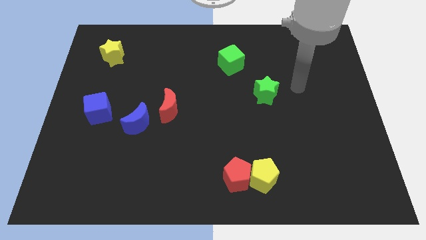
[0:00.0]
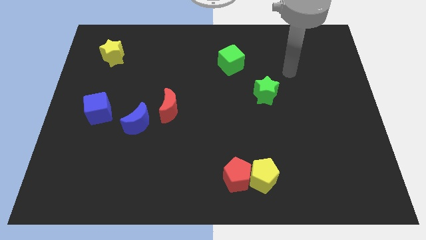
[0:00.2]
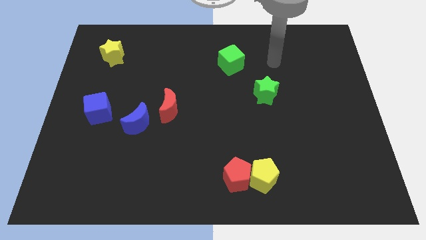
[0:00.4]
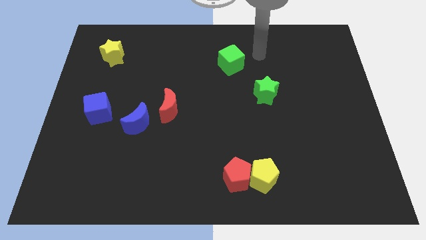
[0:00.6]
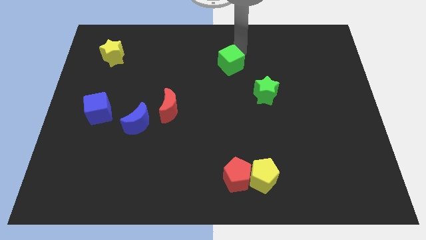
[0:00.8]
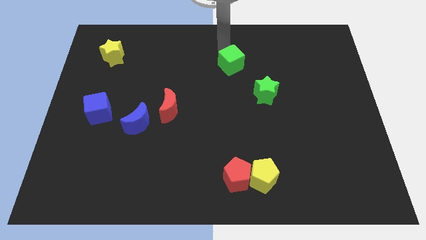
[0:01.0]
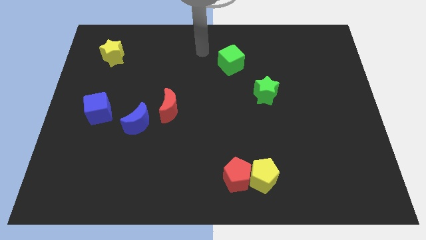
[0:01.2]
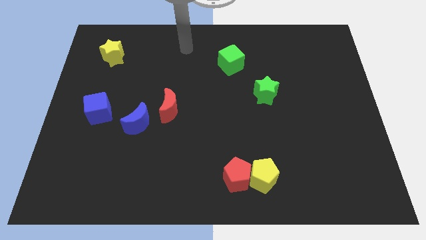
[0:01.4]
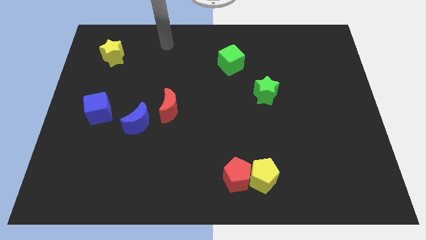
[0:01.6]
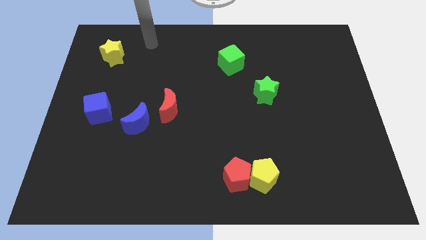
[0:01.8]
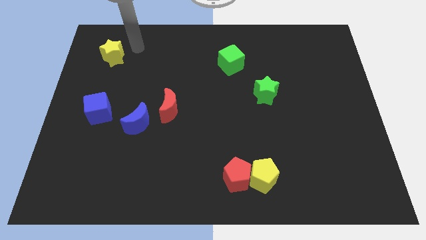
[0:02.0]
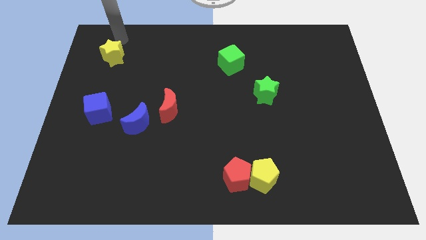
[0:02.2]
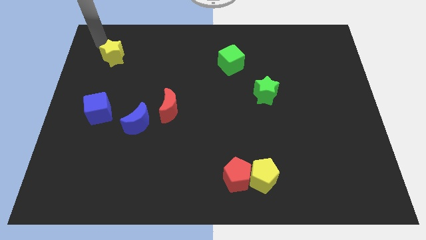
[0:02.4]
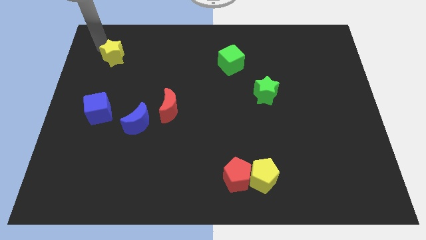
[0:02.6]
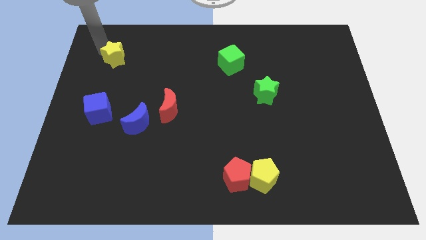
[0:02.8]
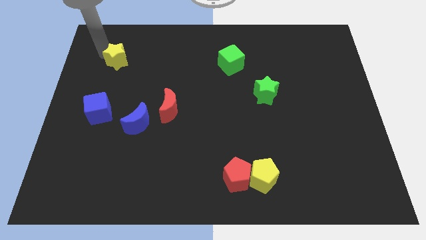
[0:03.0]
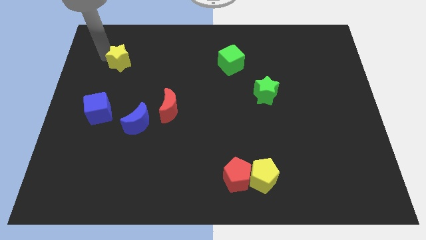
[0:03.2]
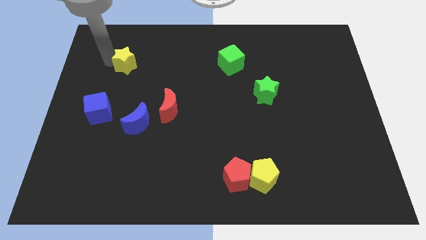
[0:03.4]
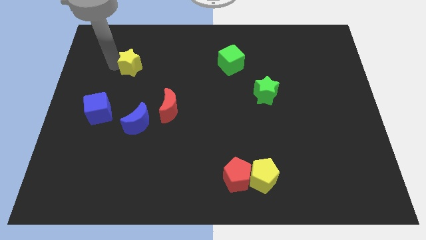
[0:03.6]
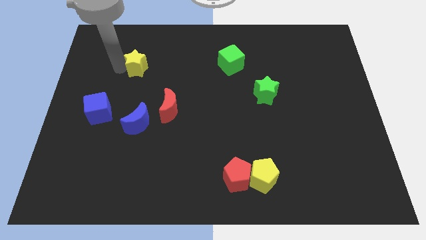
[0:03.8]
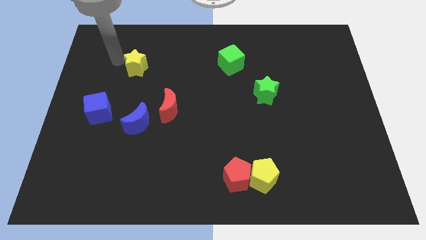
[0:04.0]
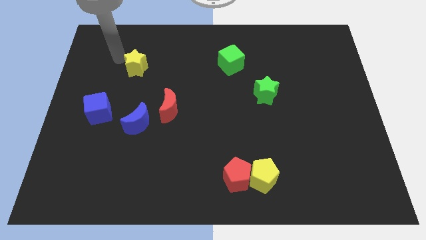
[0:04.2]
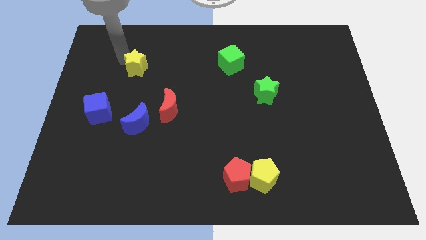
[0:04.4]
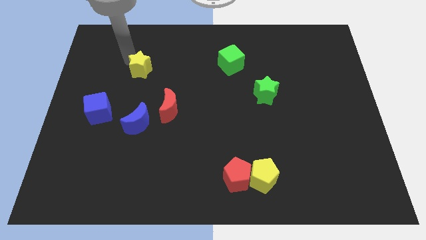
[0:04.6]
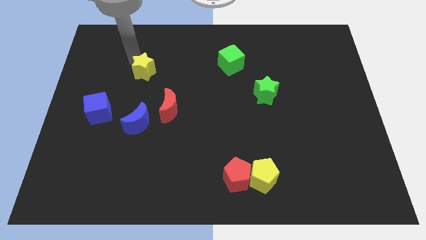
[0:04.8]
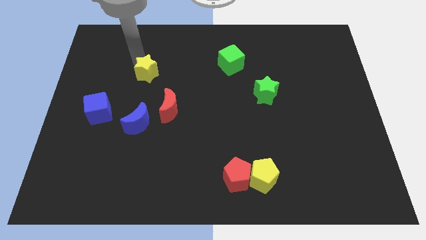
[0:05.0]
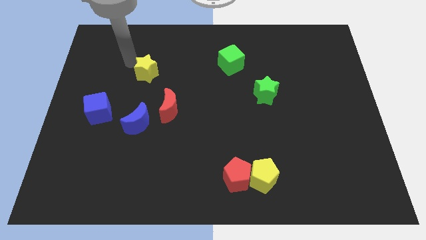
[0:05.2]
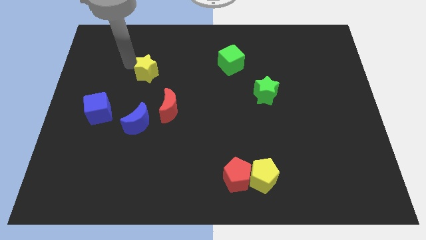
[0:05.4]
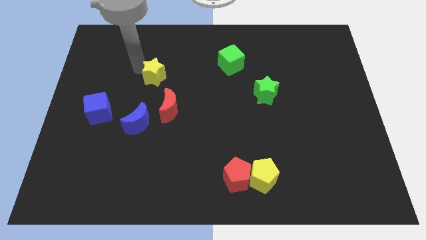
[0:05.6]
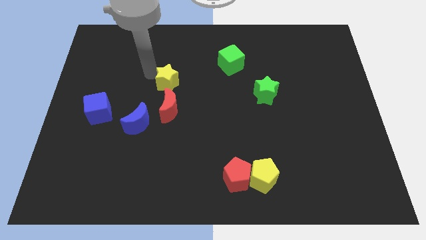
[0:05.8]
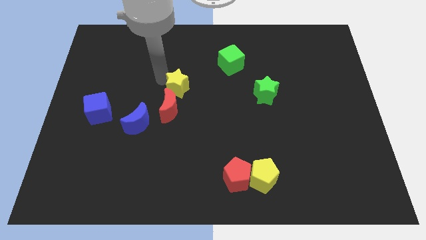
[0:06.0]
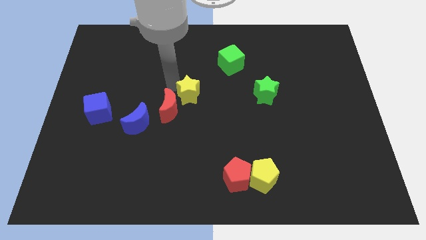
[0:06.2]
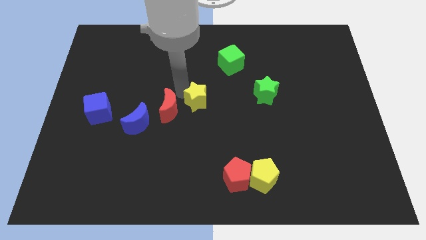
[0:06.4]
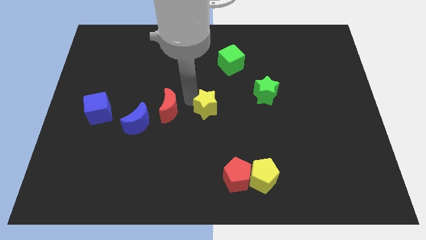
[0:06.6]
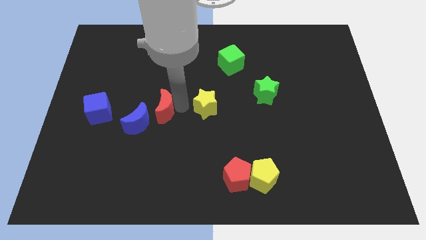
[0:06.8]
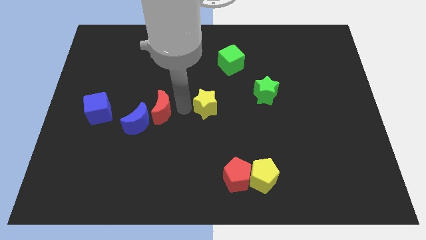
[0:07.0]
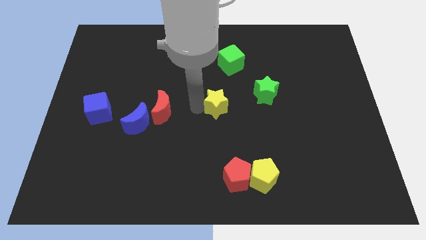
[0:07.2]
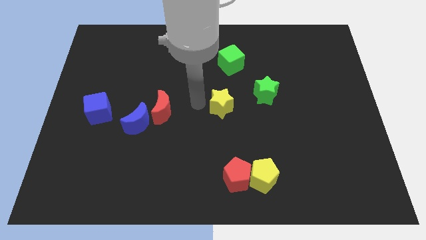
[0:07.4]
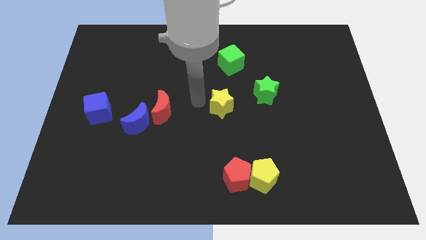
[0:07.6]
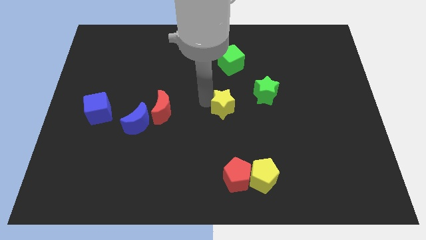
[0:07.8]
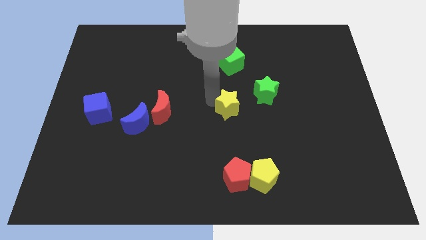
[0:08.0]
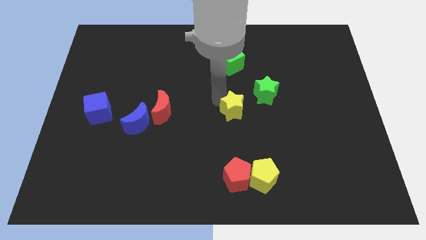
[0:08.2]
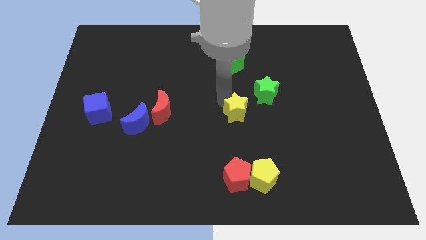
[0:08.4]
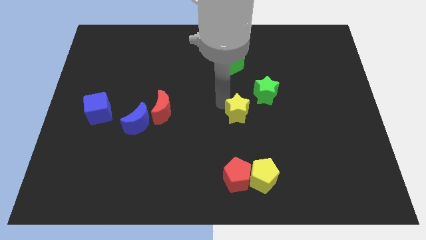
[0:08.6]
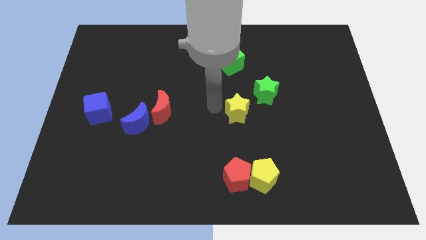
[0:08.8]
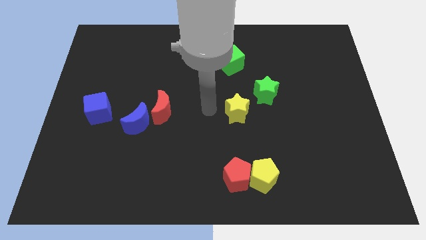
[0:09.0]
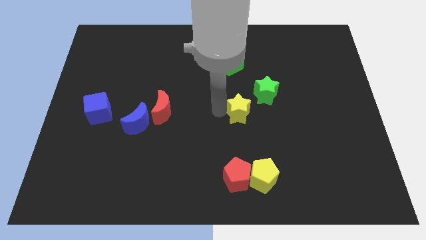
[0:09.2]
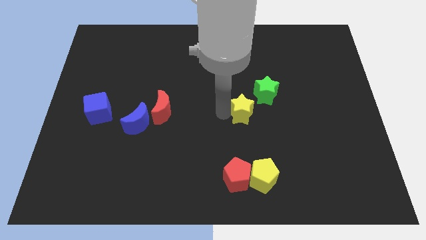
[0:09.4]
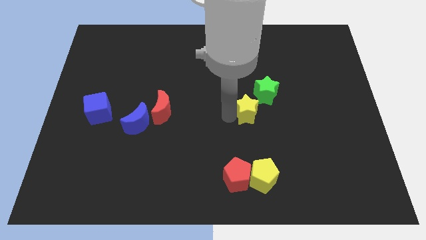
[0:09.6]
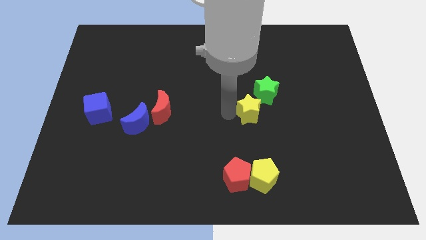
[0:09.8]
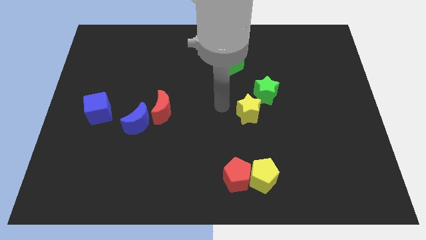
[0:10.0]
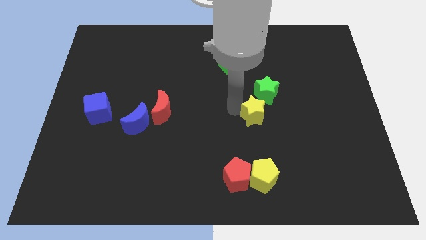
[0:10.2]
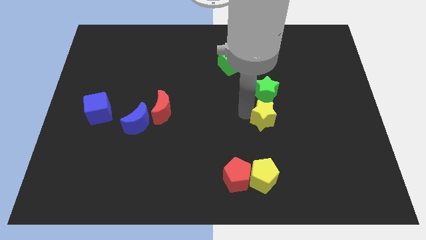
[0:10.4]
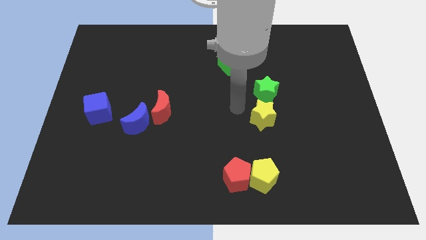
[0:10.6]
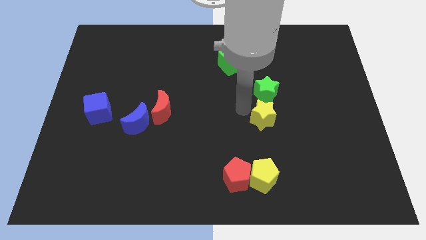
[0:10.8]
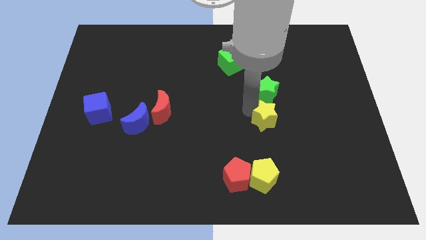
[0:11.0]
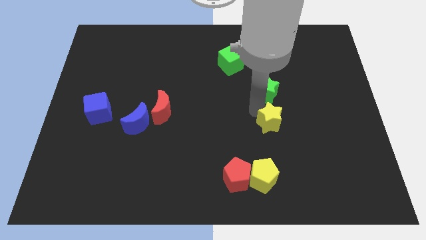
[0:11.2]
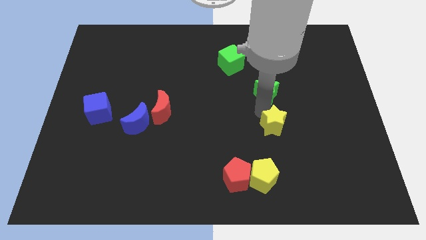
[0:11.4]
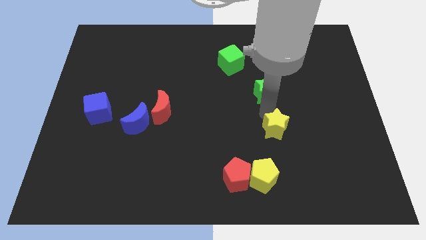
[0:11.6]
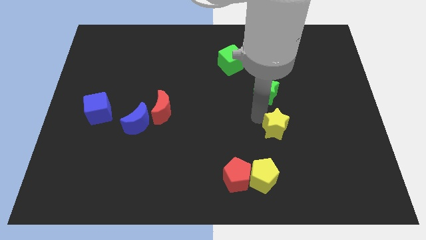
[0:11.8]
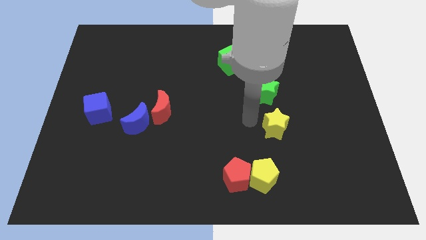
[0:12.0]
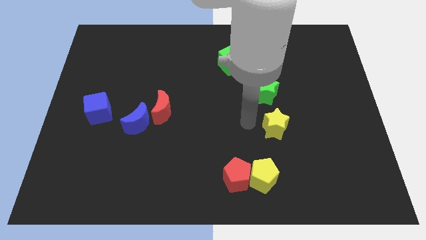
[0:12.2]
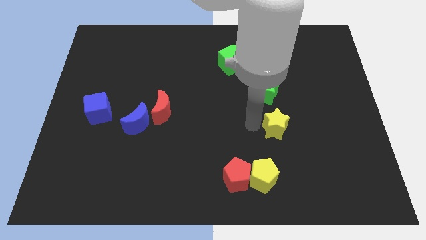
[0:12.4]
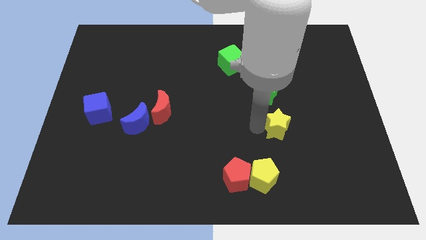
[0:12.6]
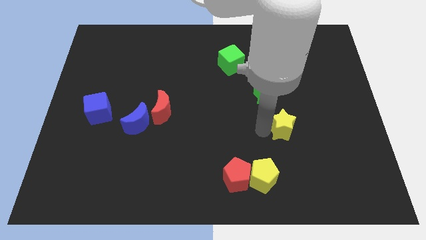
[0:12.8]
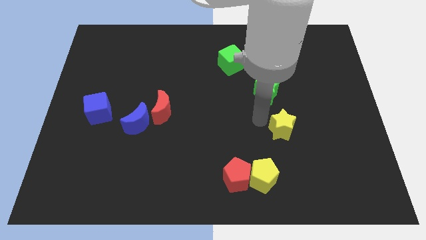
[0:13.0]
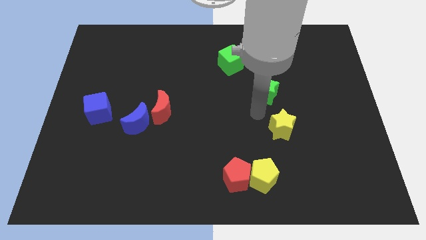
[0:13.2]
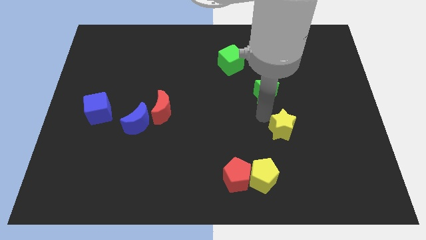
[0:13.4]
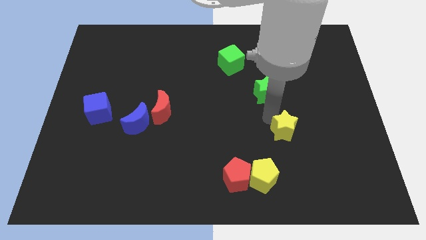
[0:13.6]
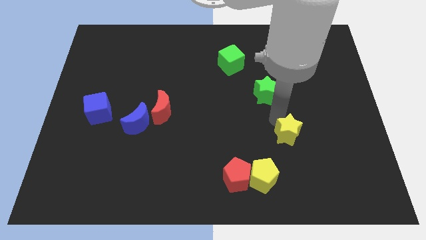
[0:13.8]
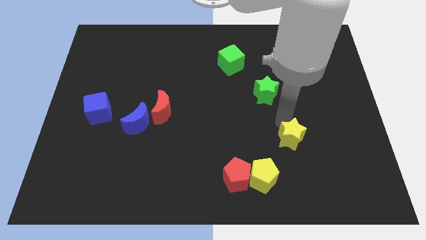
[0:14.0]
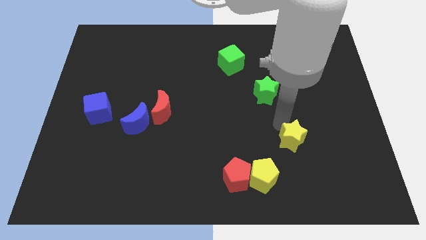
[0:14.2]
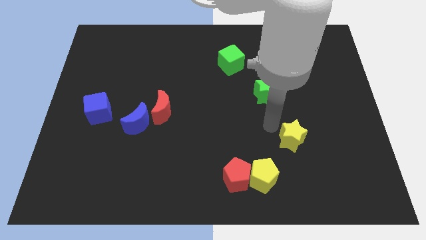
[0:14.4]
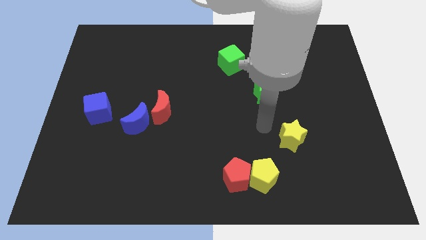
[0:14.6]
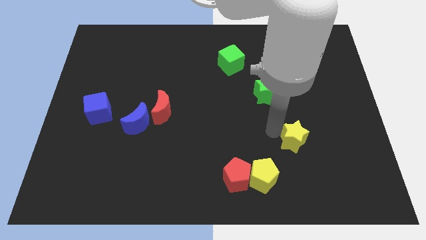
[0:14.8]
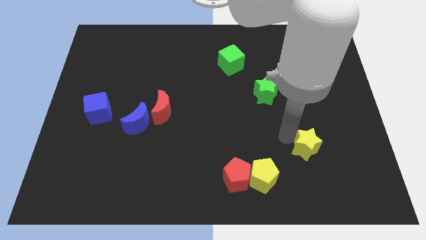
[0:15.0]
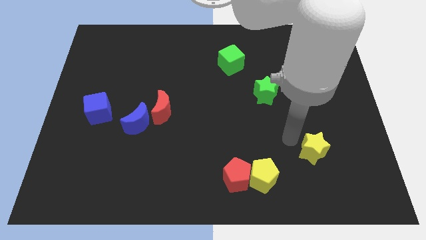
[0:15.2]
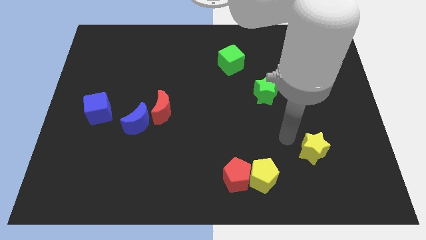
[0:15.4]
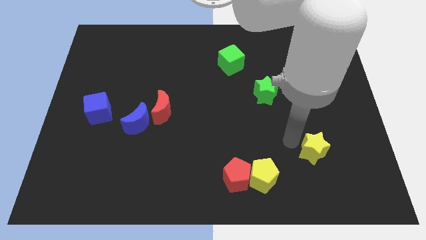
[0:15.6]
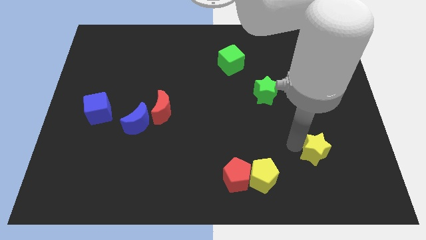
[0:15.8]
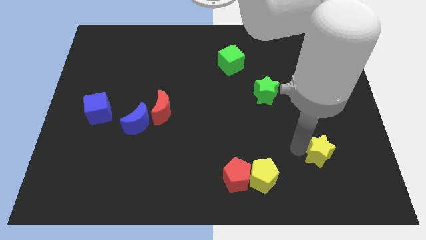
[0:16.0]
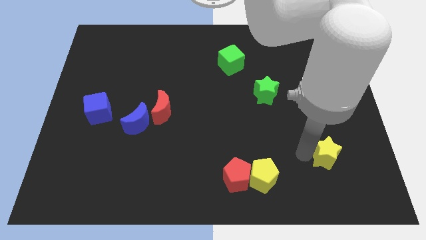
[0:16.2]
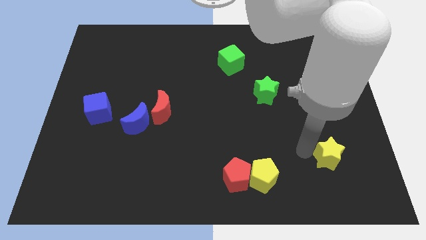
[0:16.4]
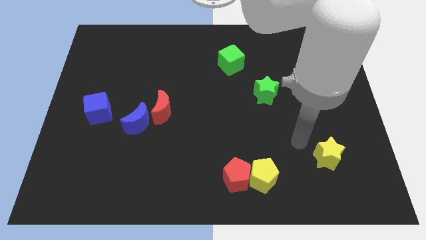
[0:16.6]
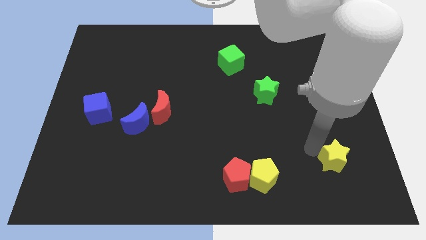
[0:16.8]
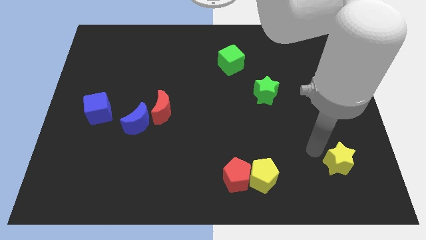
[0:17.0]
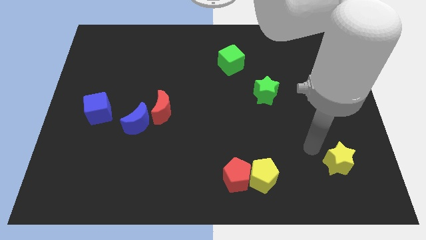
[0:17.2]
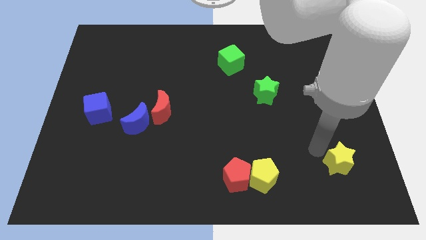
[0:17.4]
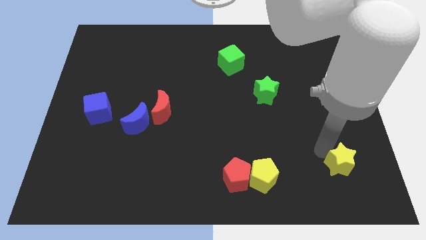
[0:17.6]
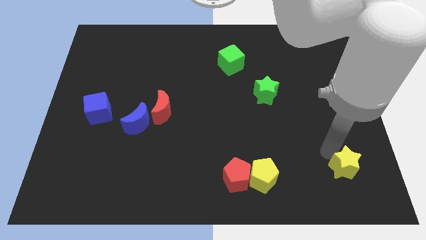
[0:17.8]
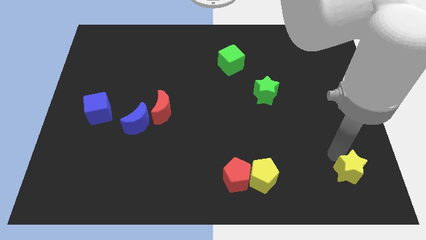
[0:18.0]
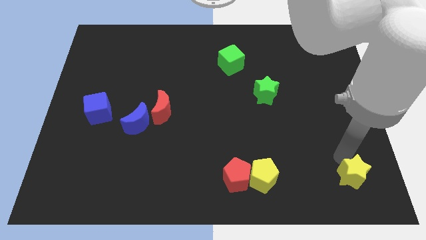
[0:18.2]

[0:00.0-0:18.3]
slide the yellow star to the bottom right of the board
